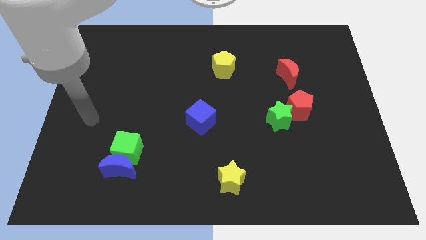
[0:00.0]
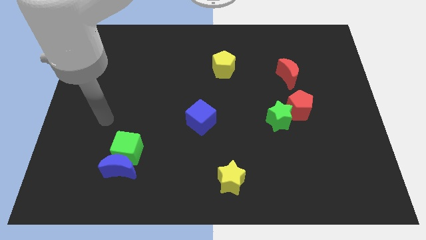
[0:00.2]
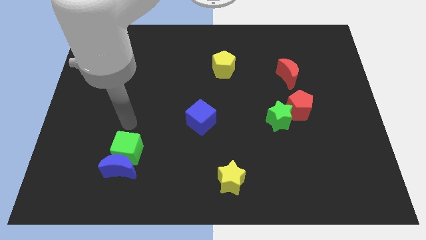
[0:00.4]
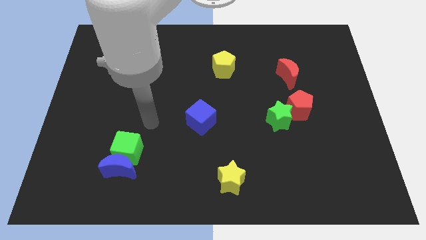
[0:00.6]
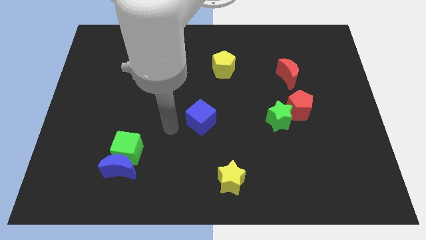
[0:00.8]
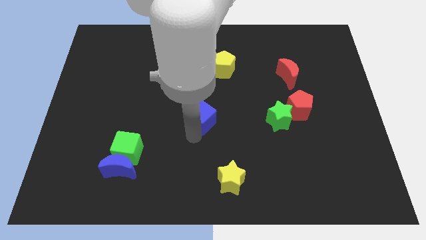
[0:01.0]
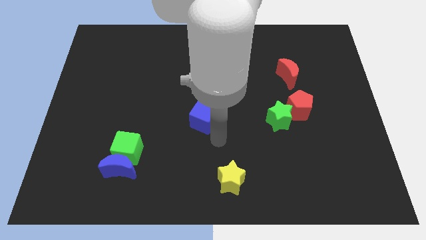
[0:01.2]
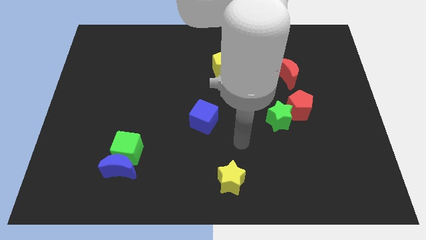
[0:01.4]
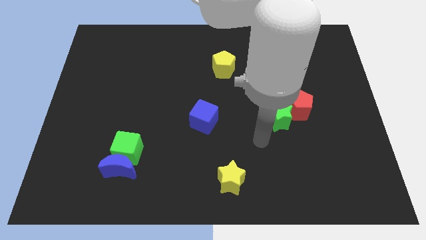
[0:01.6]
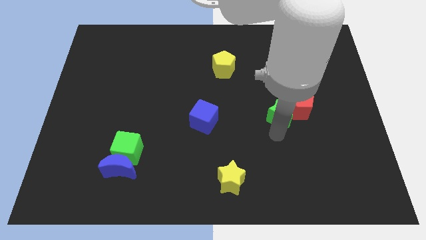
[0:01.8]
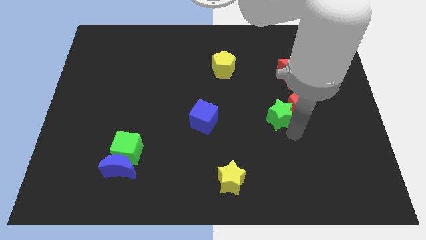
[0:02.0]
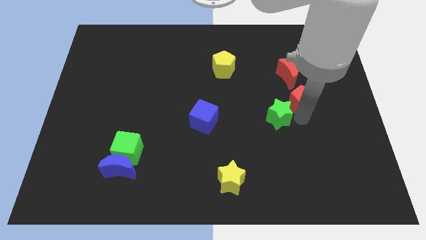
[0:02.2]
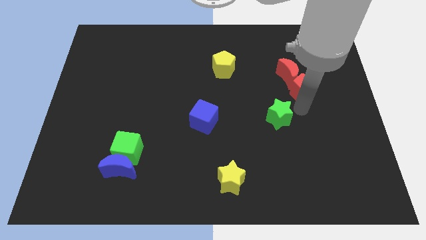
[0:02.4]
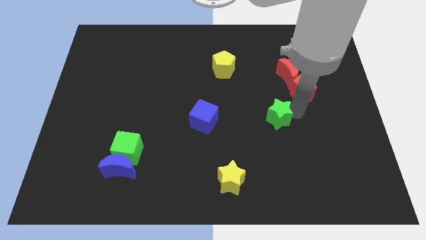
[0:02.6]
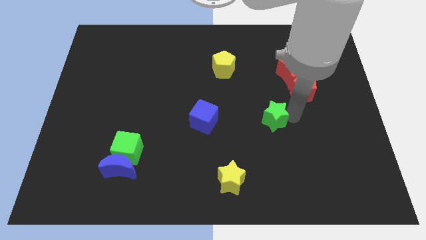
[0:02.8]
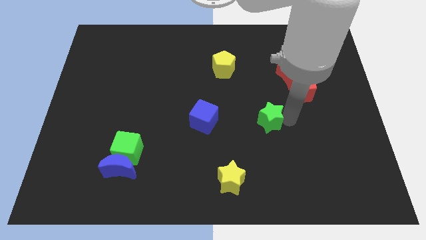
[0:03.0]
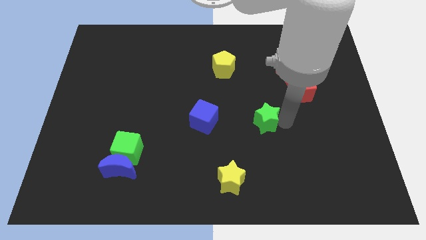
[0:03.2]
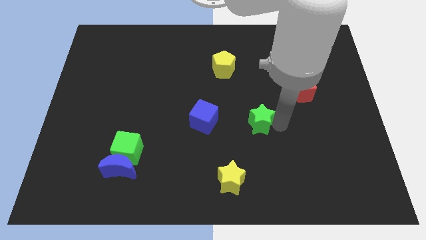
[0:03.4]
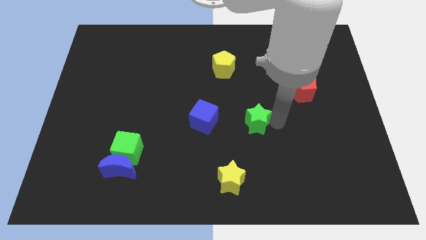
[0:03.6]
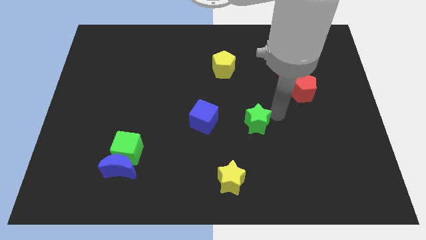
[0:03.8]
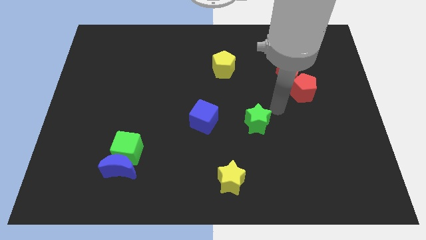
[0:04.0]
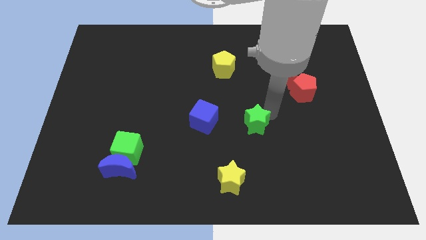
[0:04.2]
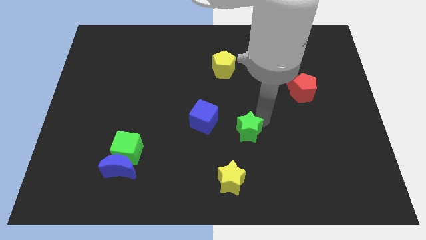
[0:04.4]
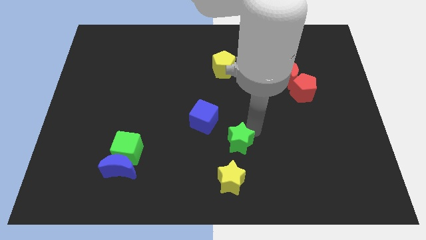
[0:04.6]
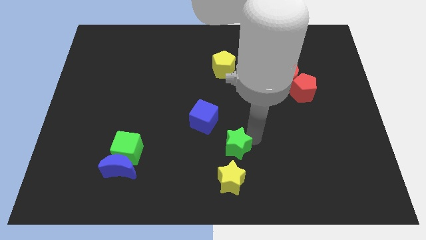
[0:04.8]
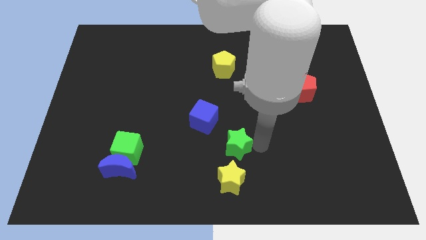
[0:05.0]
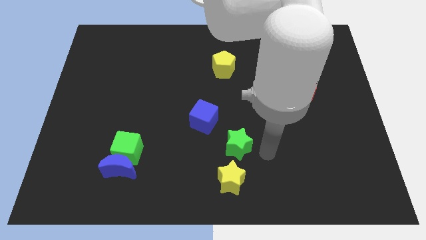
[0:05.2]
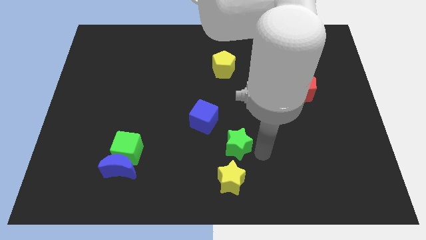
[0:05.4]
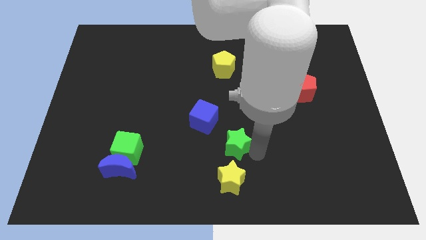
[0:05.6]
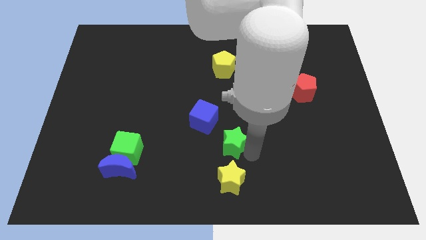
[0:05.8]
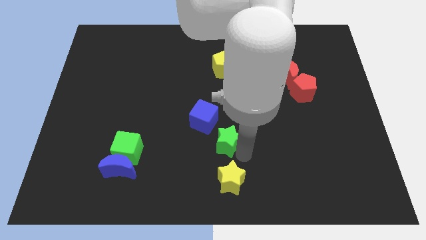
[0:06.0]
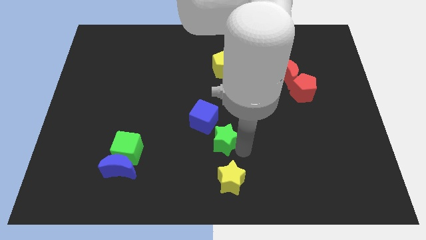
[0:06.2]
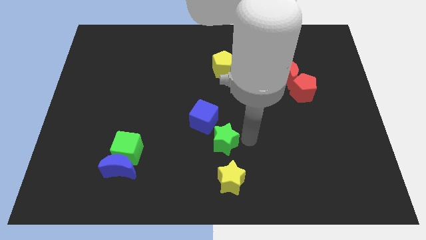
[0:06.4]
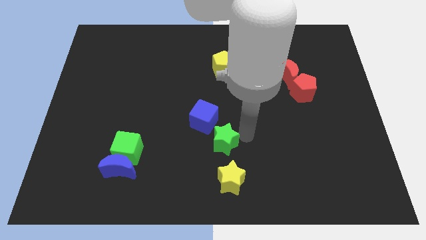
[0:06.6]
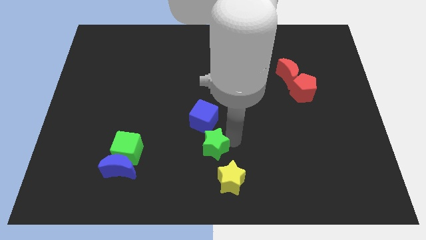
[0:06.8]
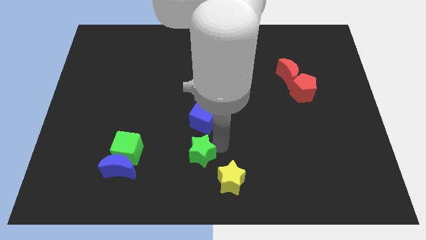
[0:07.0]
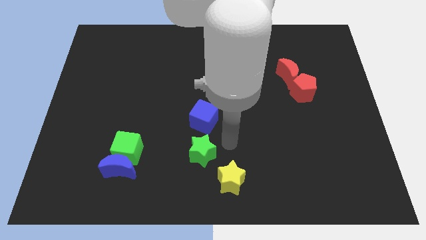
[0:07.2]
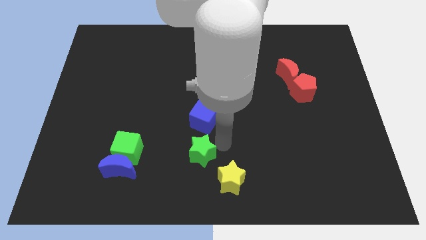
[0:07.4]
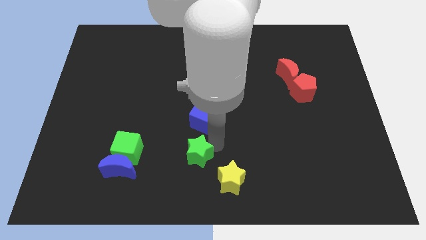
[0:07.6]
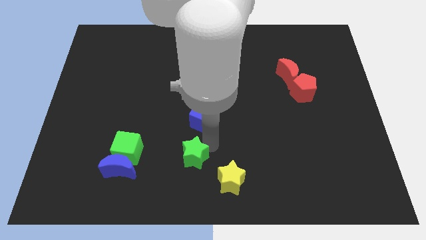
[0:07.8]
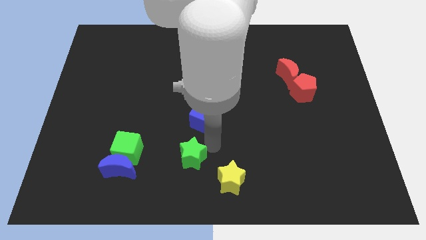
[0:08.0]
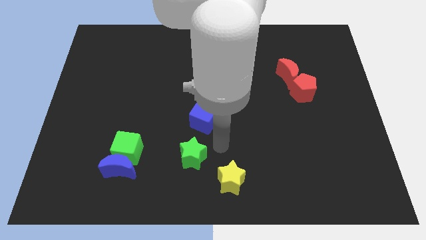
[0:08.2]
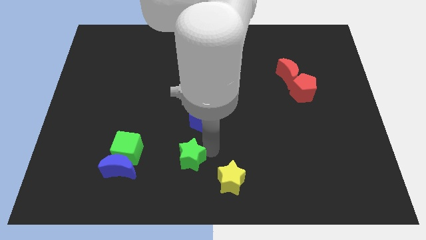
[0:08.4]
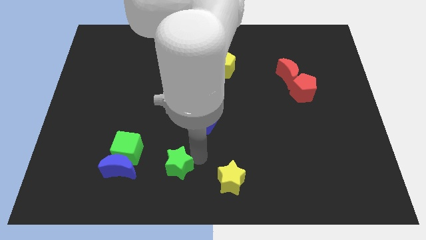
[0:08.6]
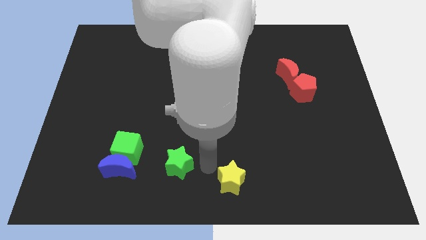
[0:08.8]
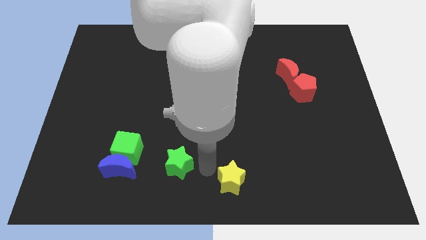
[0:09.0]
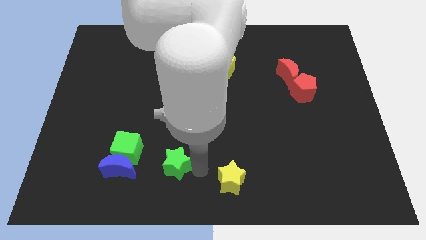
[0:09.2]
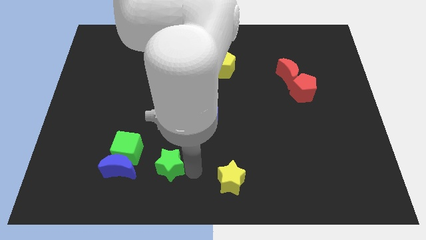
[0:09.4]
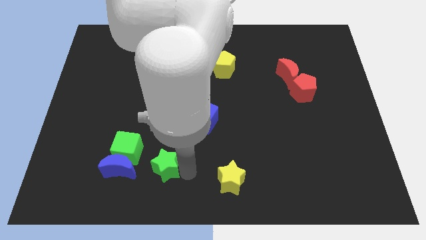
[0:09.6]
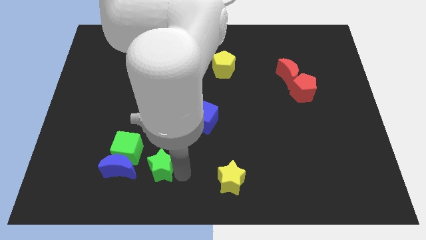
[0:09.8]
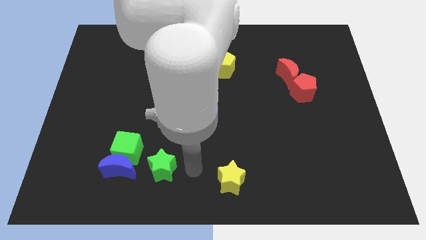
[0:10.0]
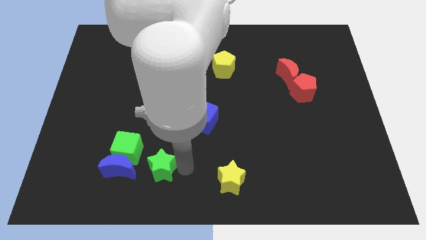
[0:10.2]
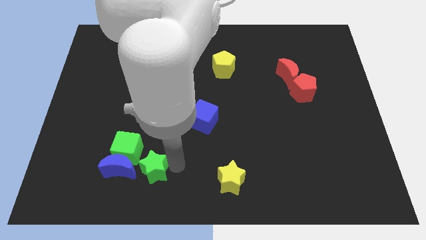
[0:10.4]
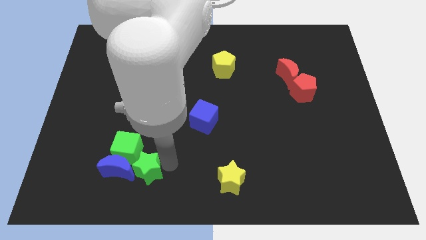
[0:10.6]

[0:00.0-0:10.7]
push the green star next to the blue moon

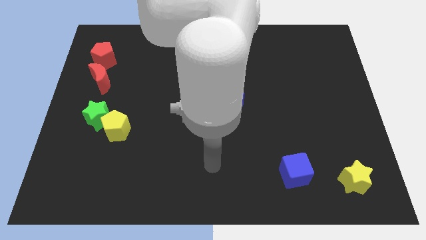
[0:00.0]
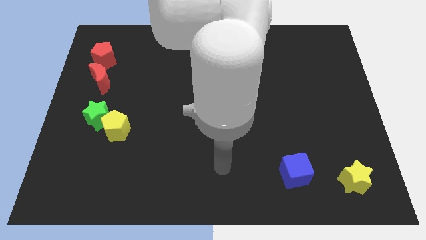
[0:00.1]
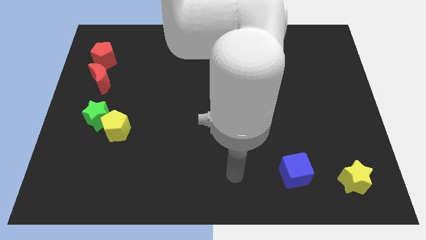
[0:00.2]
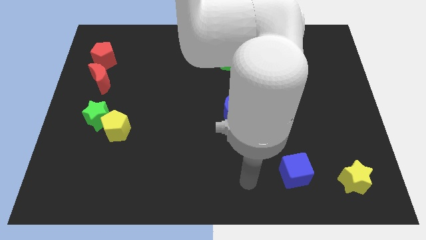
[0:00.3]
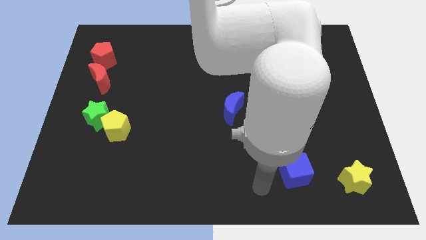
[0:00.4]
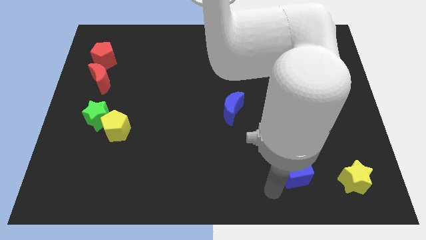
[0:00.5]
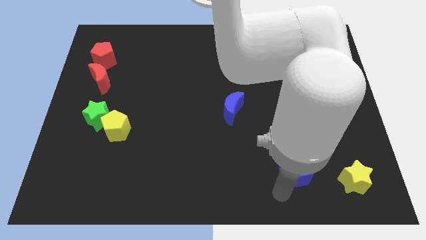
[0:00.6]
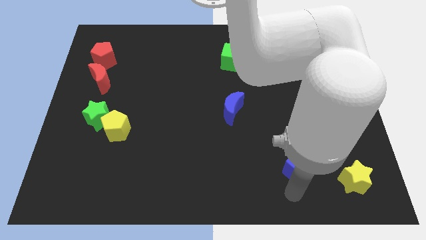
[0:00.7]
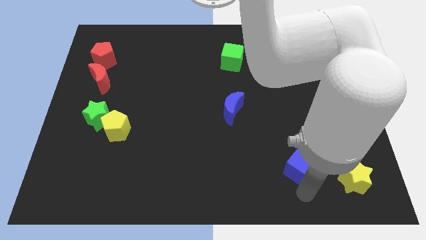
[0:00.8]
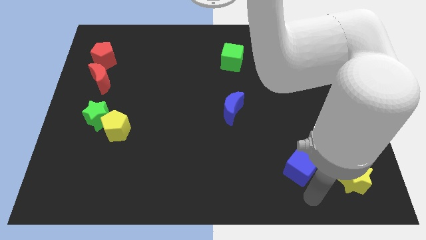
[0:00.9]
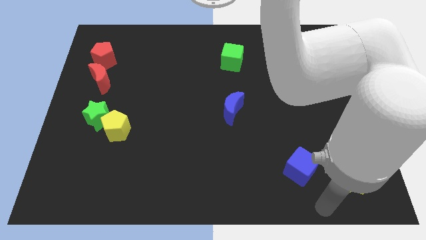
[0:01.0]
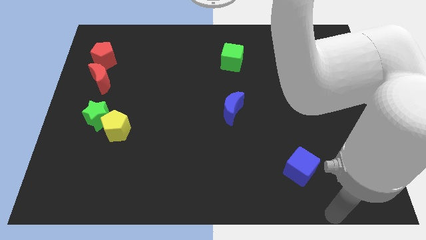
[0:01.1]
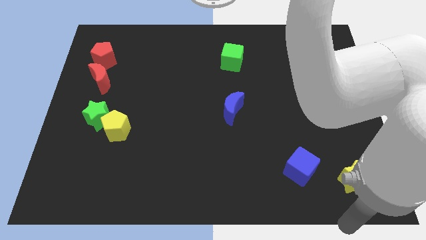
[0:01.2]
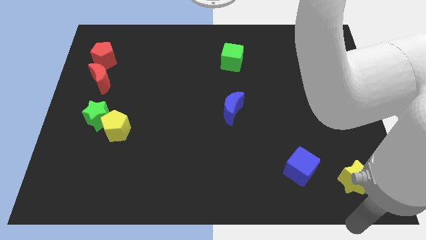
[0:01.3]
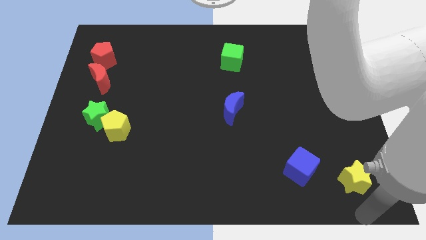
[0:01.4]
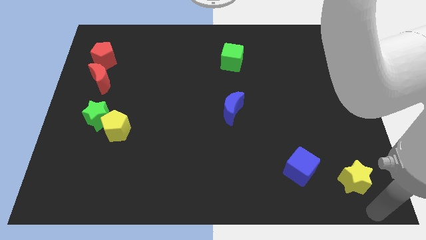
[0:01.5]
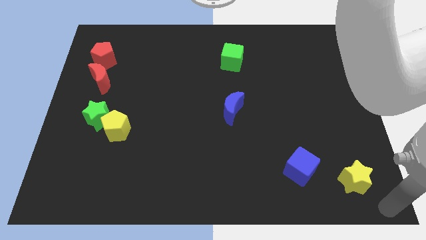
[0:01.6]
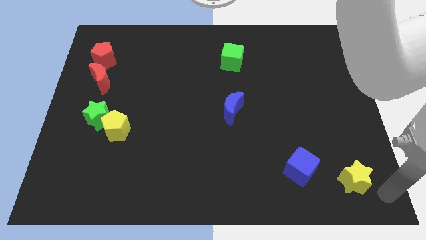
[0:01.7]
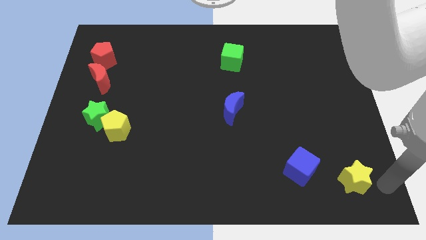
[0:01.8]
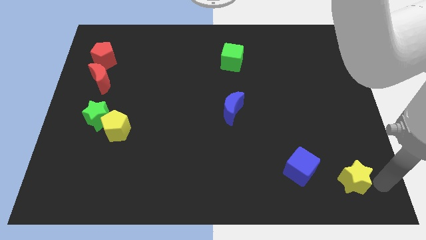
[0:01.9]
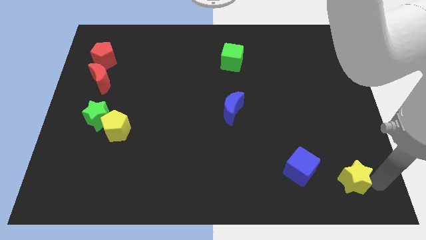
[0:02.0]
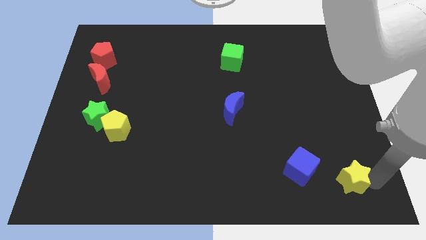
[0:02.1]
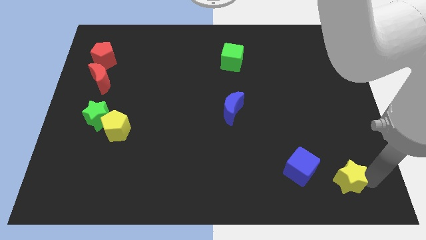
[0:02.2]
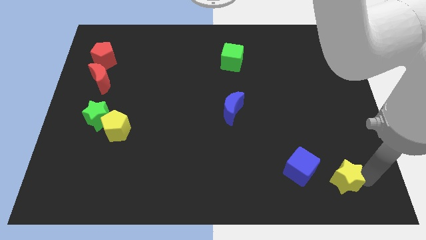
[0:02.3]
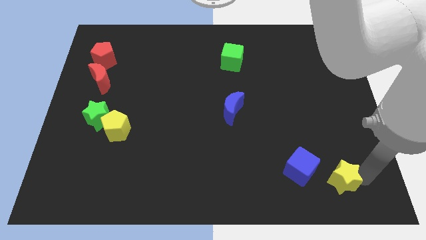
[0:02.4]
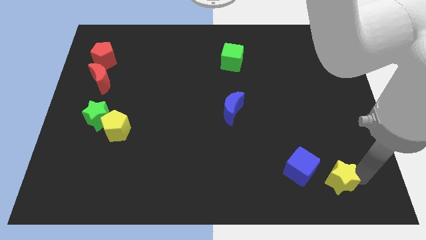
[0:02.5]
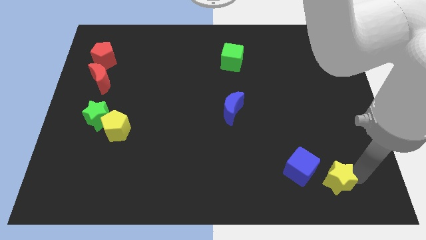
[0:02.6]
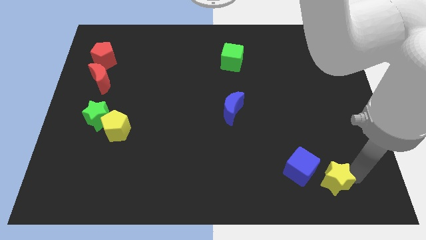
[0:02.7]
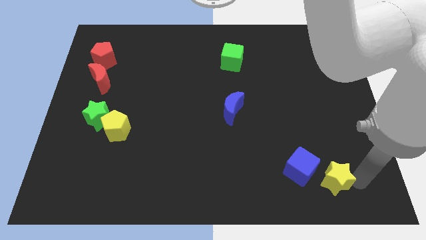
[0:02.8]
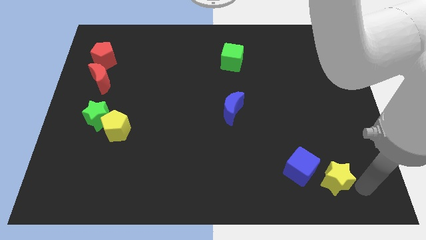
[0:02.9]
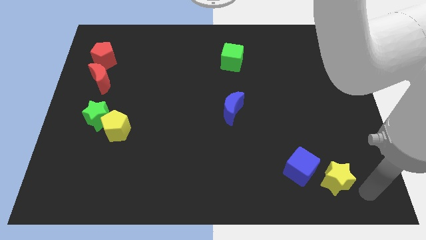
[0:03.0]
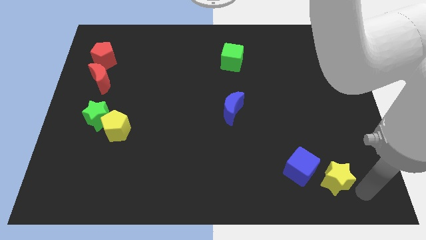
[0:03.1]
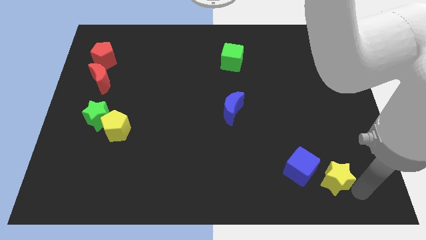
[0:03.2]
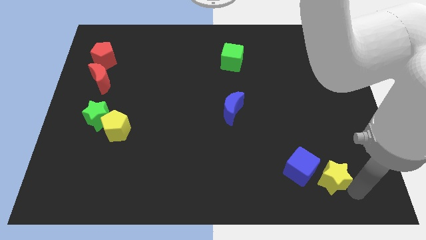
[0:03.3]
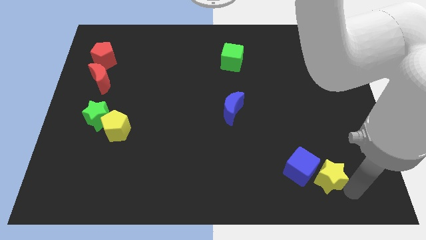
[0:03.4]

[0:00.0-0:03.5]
slide the yellow star close to the blue cube
